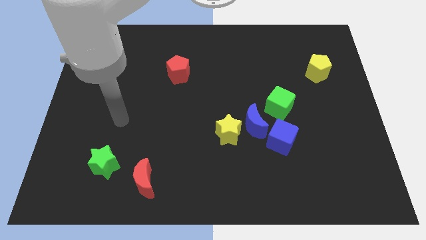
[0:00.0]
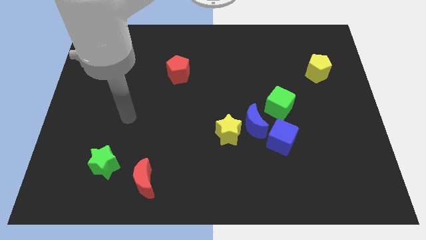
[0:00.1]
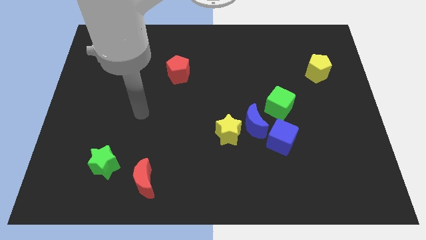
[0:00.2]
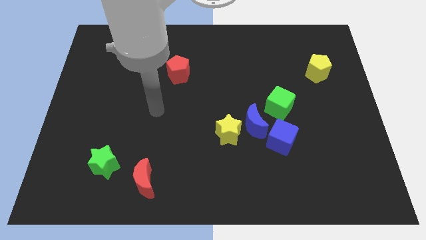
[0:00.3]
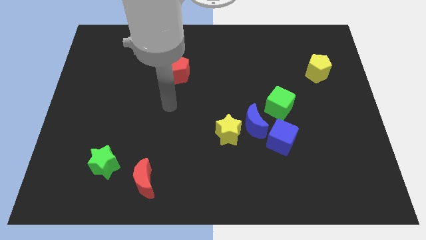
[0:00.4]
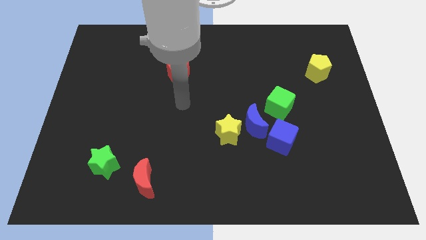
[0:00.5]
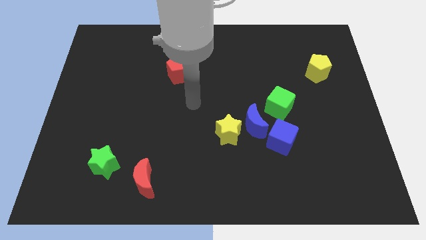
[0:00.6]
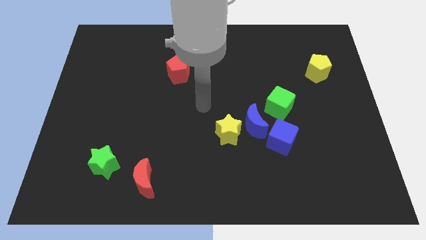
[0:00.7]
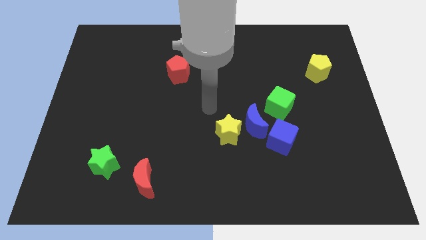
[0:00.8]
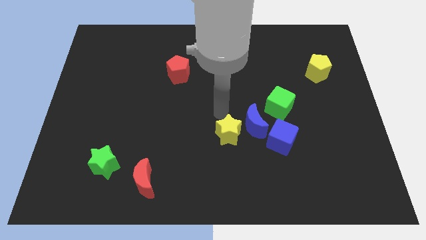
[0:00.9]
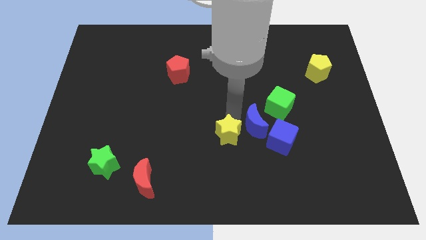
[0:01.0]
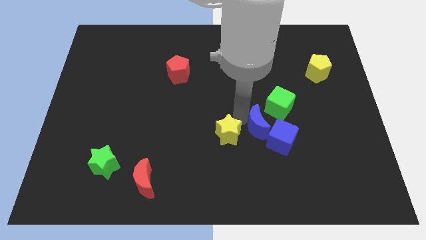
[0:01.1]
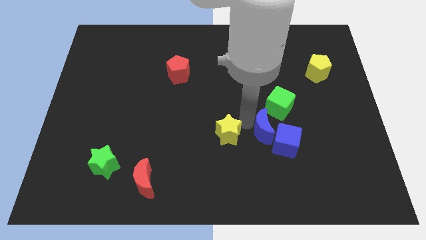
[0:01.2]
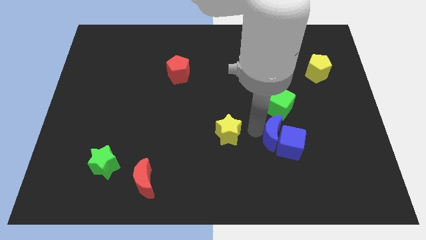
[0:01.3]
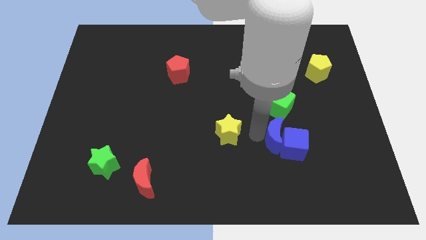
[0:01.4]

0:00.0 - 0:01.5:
move the yellow star away from the blue moon

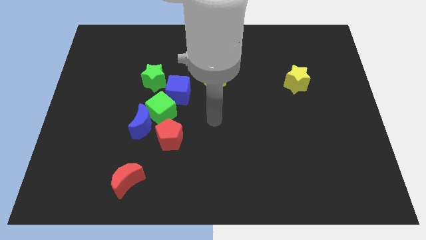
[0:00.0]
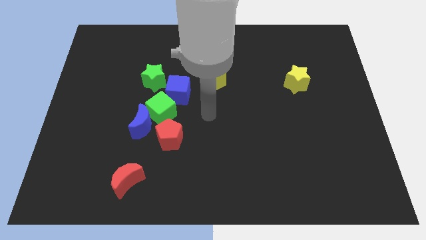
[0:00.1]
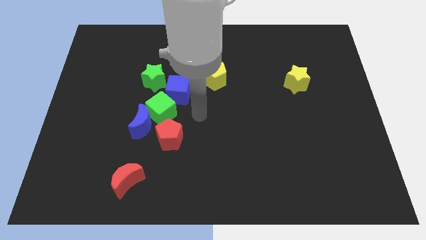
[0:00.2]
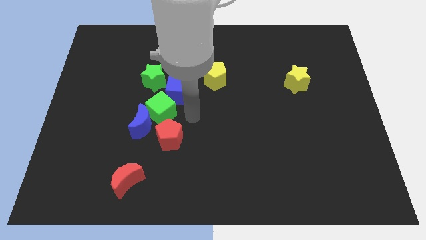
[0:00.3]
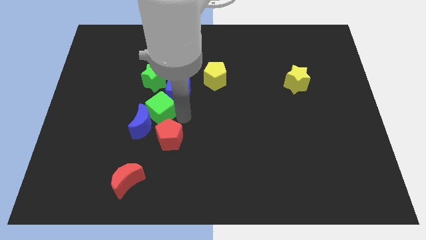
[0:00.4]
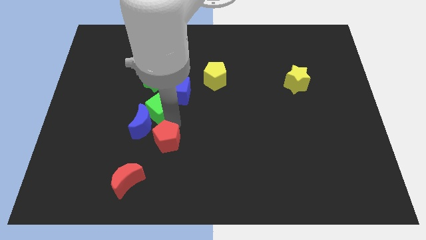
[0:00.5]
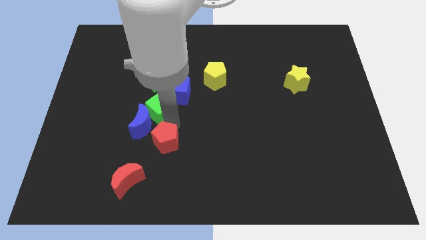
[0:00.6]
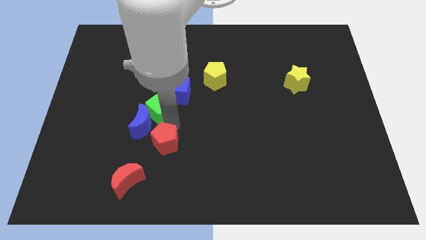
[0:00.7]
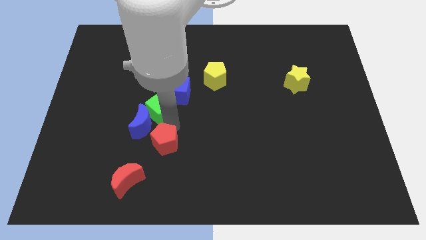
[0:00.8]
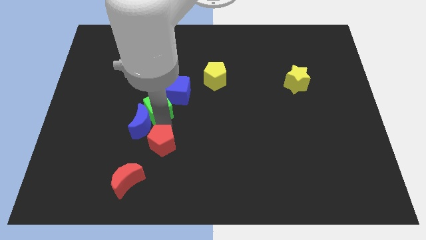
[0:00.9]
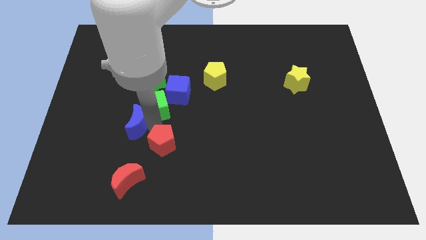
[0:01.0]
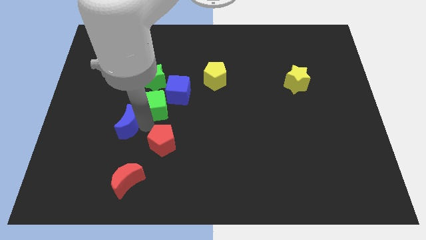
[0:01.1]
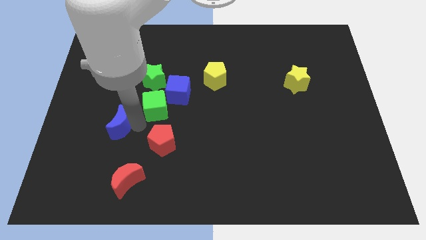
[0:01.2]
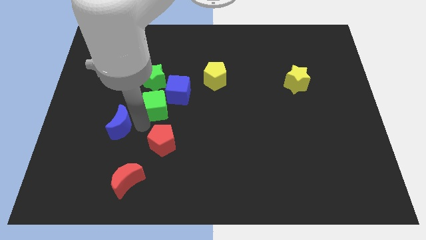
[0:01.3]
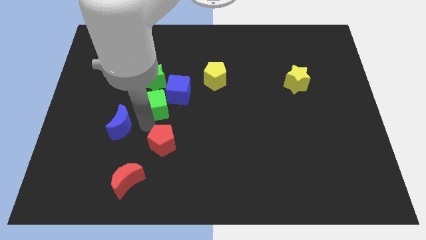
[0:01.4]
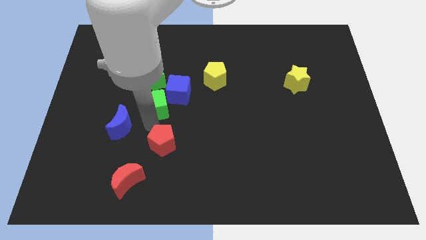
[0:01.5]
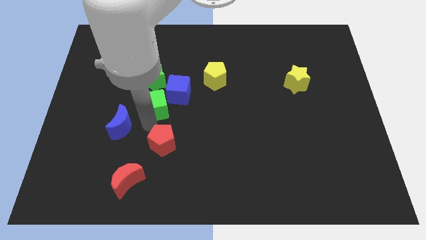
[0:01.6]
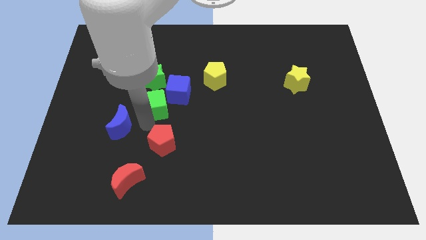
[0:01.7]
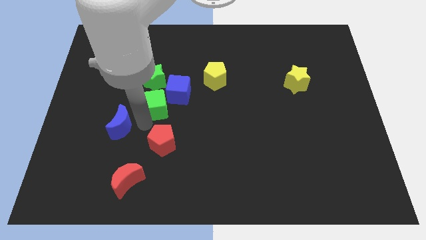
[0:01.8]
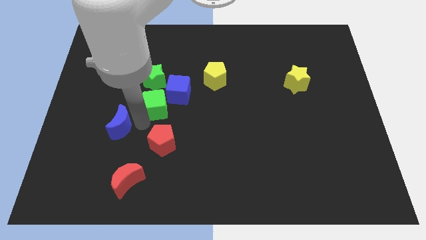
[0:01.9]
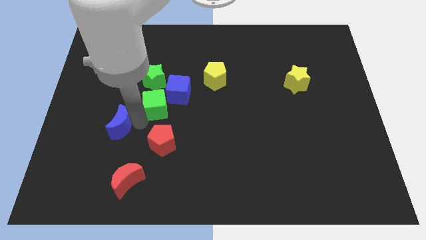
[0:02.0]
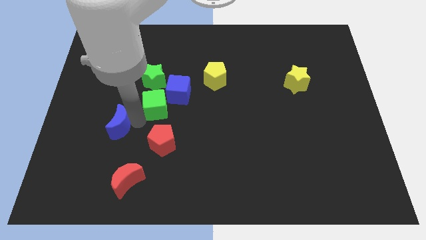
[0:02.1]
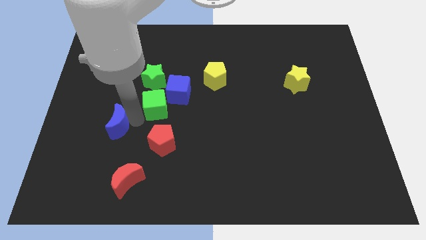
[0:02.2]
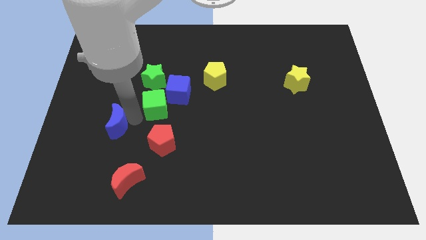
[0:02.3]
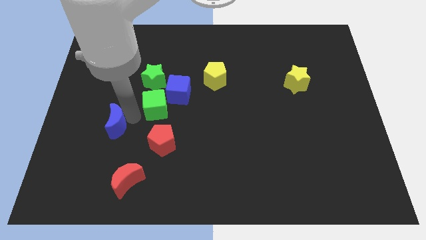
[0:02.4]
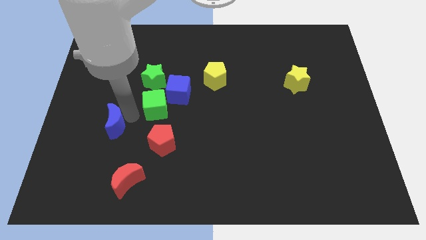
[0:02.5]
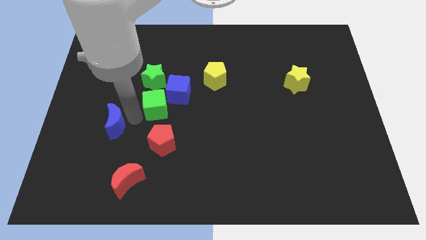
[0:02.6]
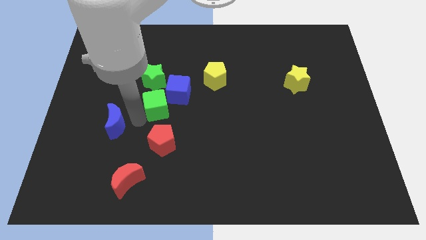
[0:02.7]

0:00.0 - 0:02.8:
move the blue moon away from the green cube and red pentagon

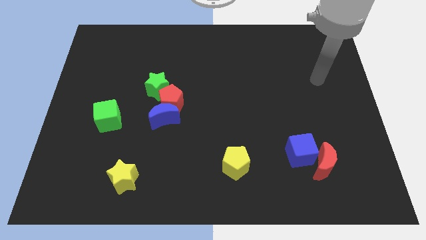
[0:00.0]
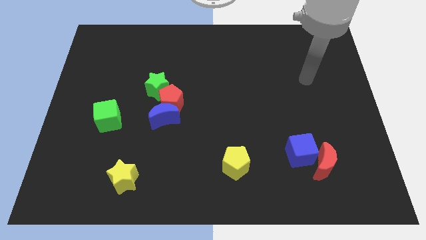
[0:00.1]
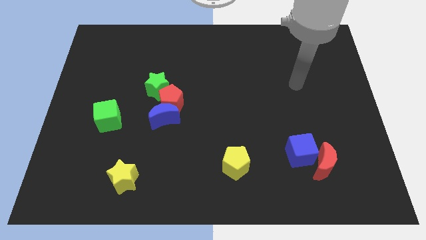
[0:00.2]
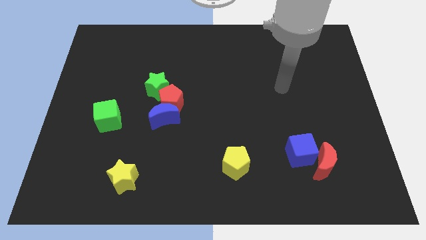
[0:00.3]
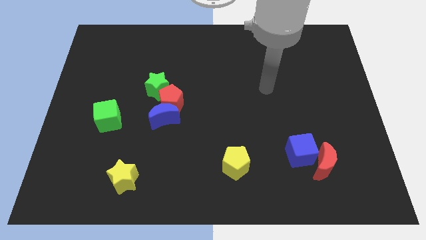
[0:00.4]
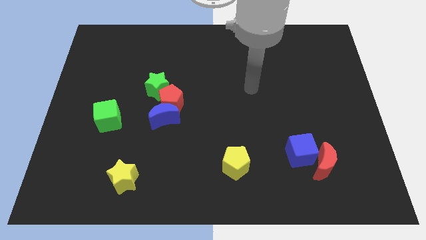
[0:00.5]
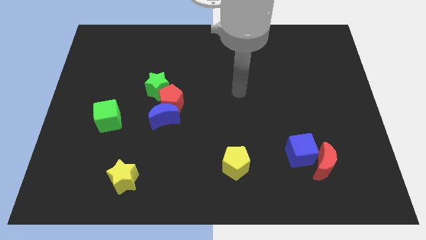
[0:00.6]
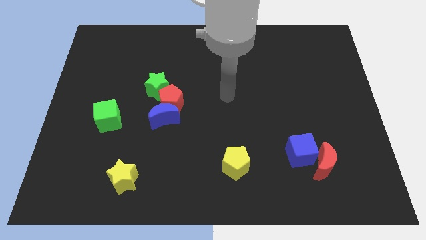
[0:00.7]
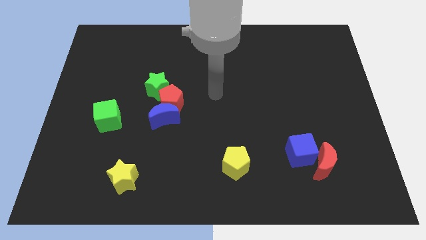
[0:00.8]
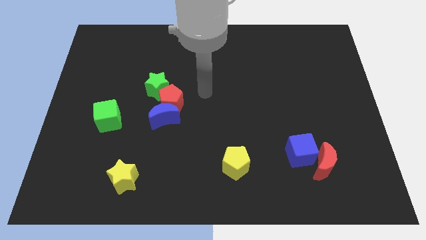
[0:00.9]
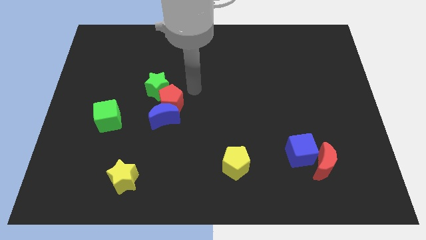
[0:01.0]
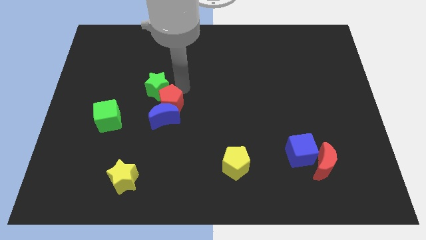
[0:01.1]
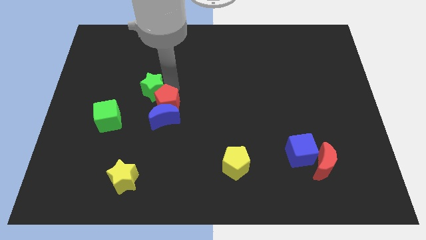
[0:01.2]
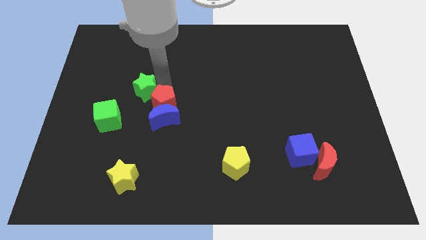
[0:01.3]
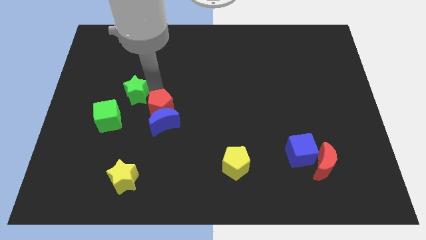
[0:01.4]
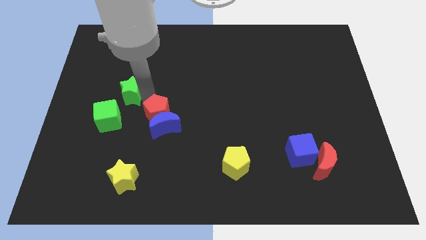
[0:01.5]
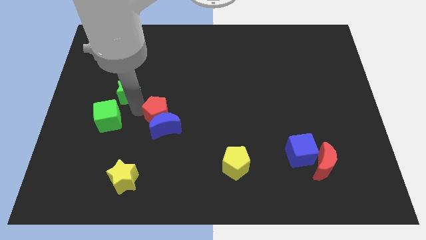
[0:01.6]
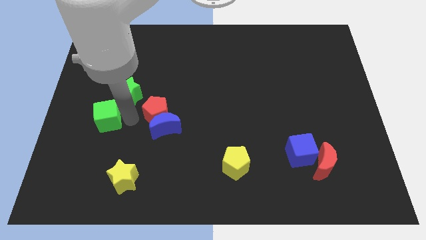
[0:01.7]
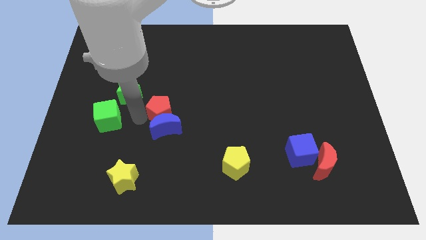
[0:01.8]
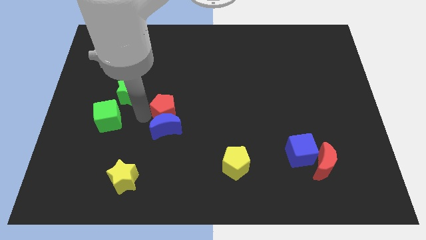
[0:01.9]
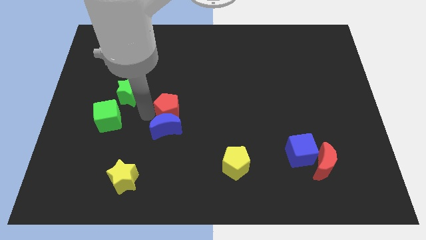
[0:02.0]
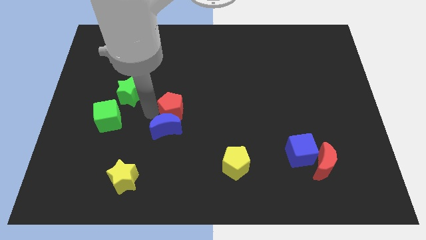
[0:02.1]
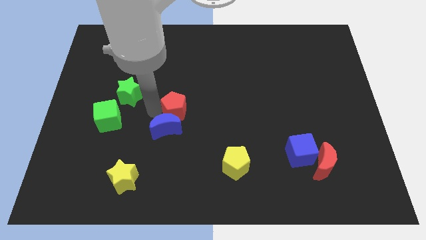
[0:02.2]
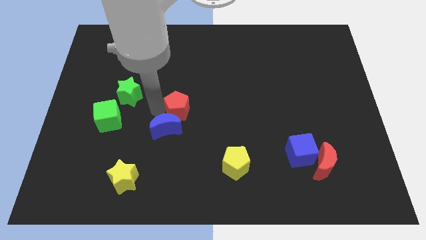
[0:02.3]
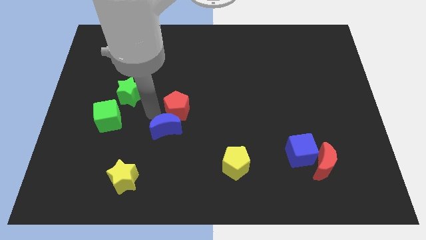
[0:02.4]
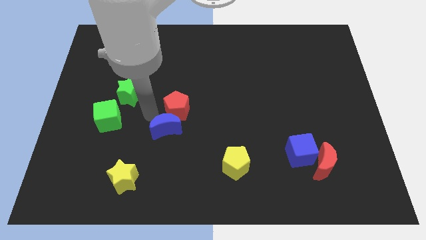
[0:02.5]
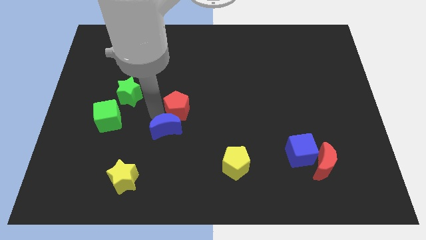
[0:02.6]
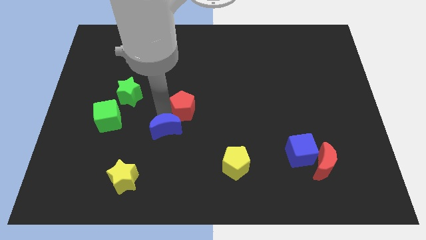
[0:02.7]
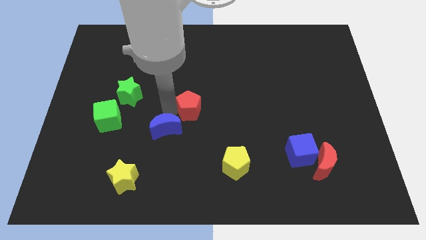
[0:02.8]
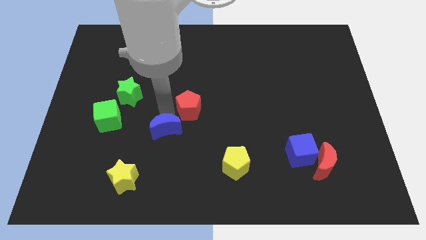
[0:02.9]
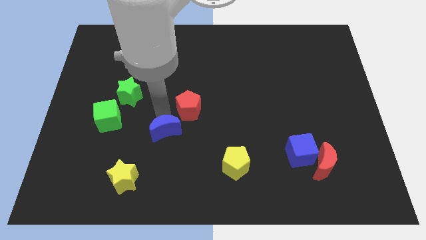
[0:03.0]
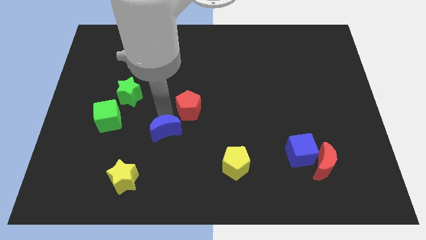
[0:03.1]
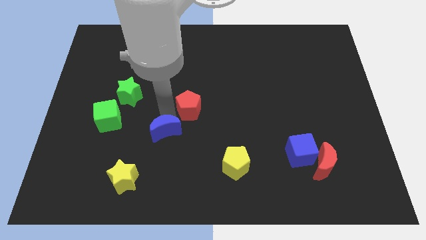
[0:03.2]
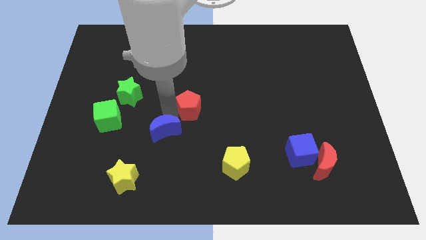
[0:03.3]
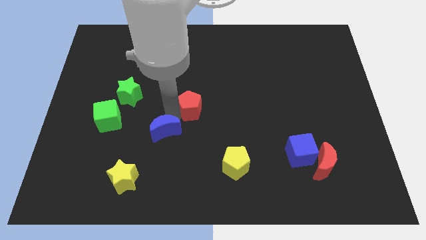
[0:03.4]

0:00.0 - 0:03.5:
separate the red pentagon from the blue moon and green star

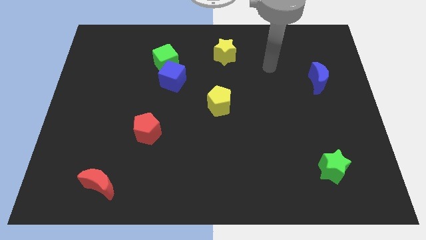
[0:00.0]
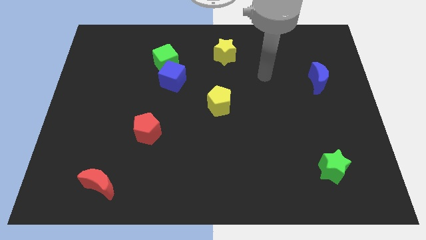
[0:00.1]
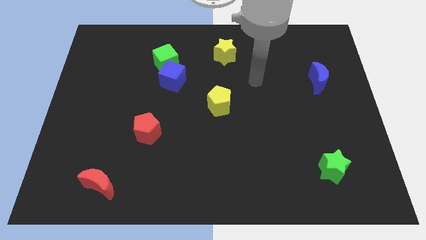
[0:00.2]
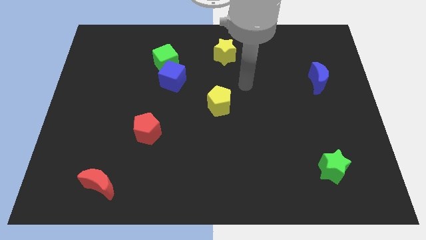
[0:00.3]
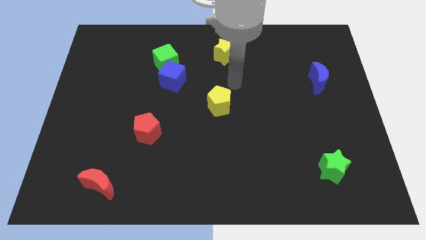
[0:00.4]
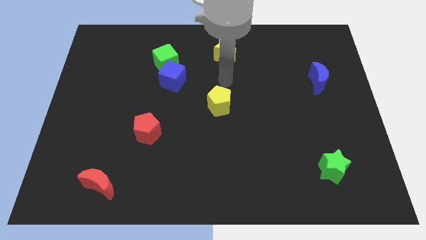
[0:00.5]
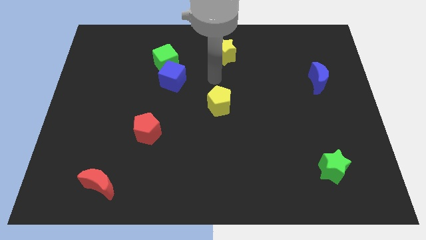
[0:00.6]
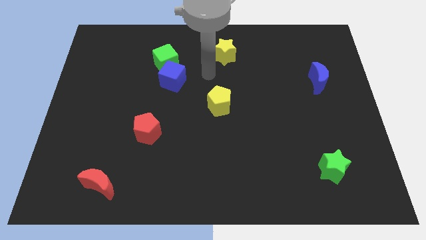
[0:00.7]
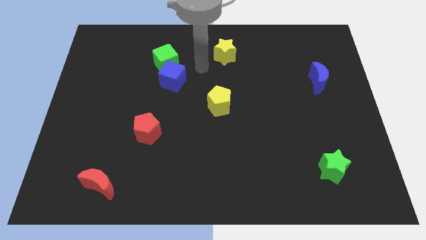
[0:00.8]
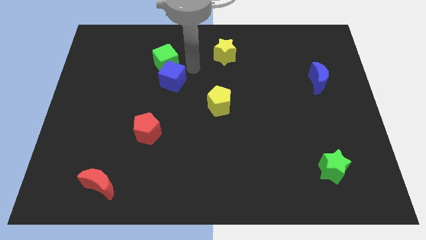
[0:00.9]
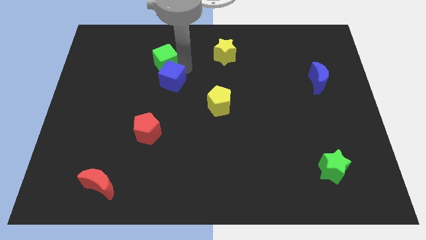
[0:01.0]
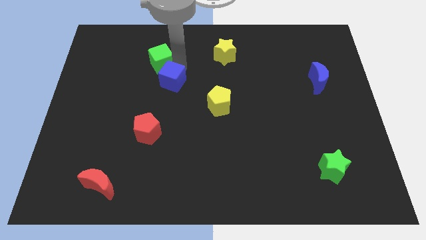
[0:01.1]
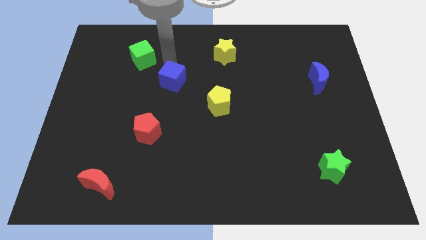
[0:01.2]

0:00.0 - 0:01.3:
pull the blue cube apart from the green cube

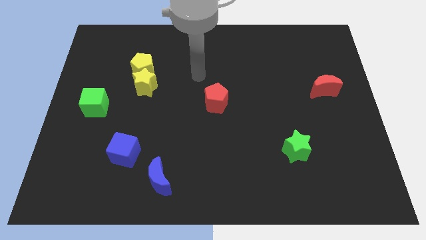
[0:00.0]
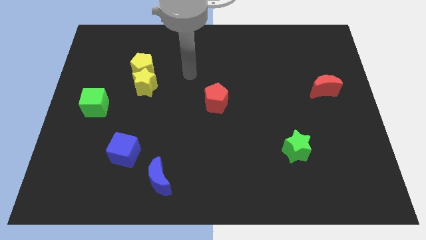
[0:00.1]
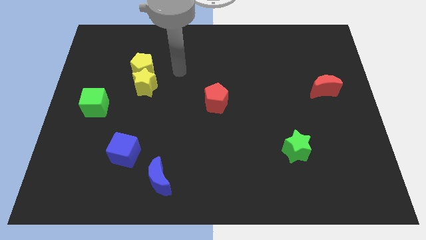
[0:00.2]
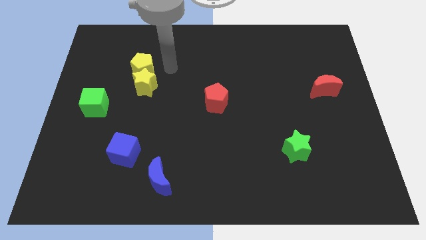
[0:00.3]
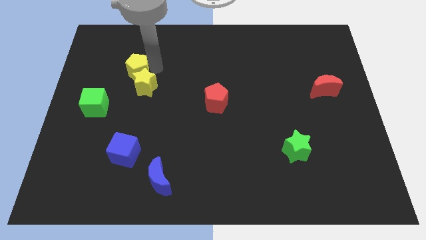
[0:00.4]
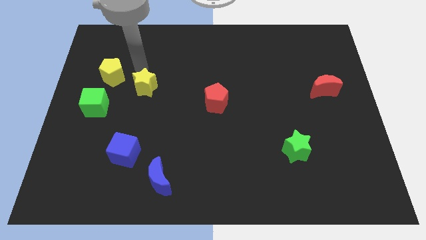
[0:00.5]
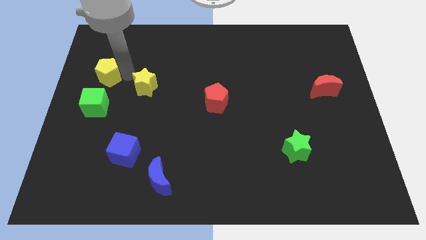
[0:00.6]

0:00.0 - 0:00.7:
pull the yellow star apart from the yellow pentagon
